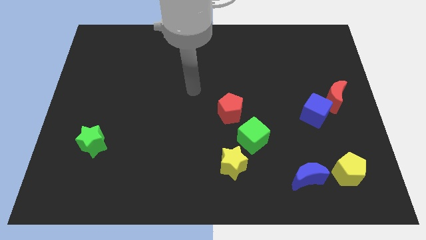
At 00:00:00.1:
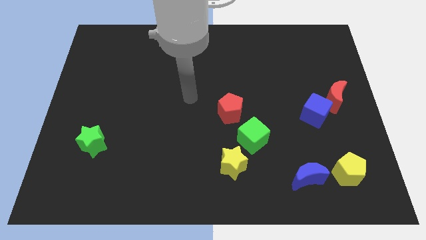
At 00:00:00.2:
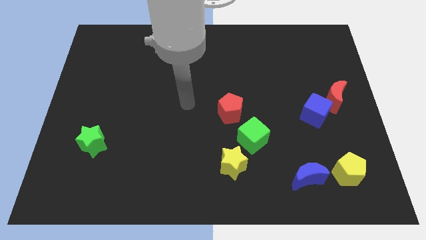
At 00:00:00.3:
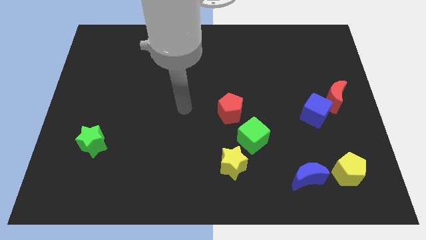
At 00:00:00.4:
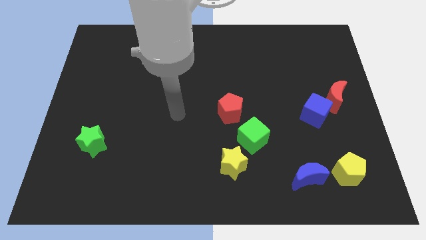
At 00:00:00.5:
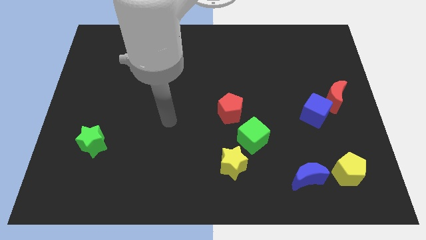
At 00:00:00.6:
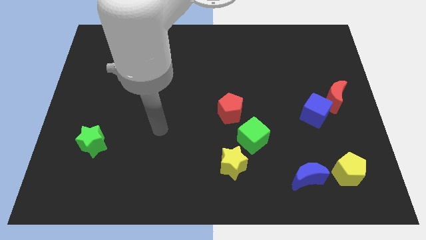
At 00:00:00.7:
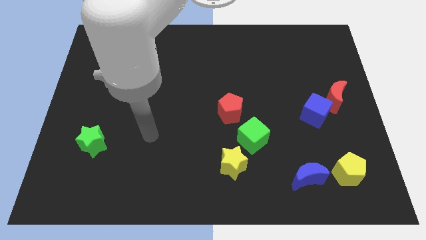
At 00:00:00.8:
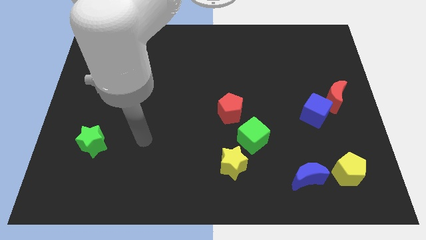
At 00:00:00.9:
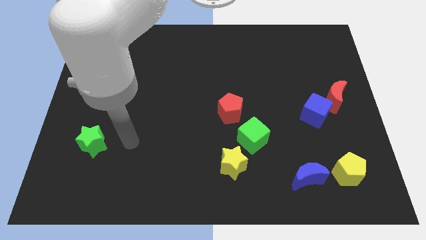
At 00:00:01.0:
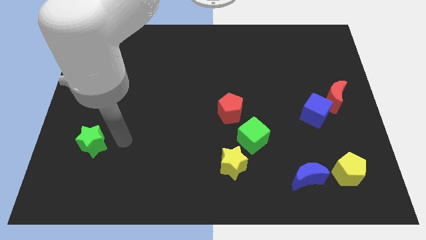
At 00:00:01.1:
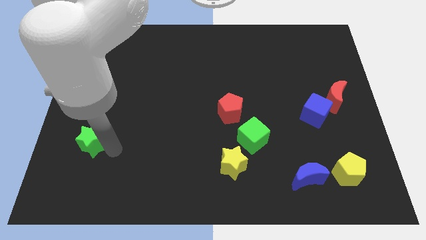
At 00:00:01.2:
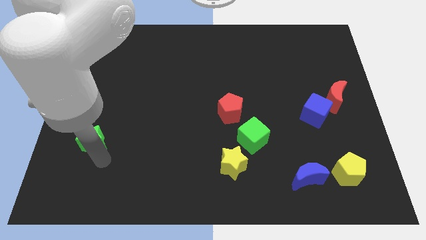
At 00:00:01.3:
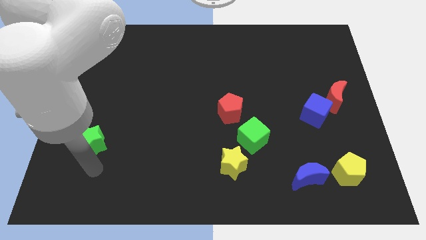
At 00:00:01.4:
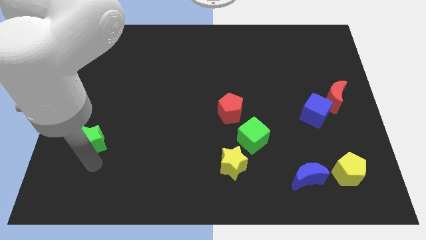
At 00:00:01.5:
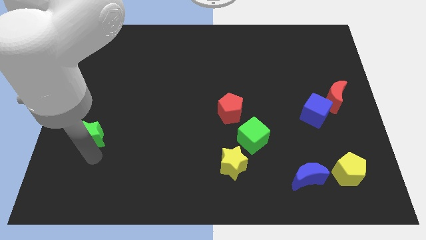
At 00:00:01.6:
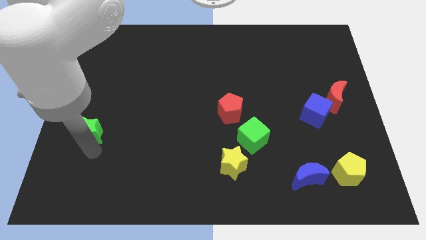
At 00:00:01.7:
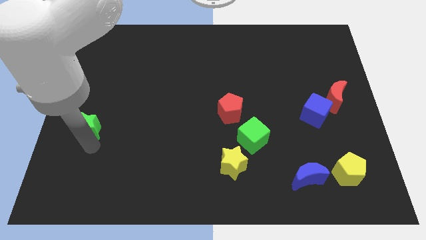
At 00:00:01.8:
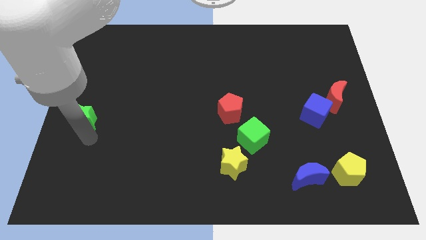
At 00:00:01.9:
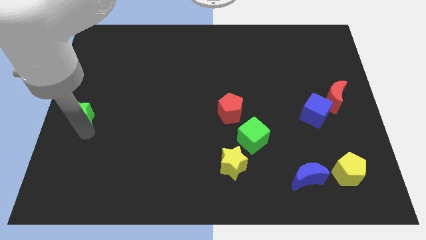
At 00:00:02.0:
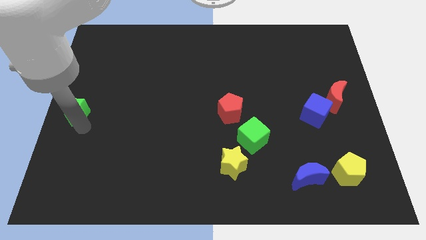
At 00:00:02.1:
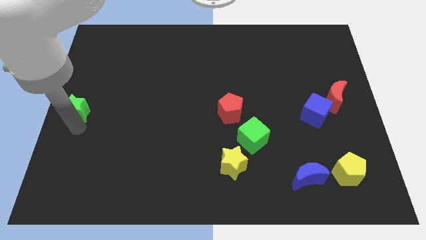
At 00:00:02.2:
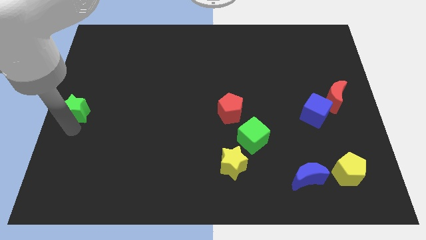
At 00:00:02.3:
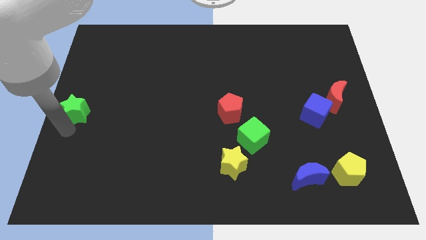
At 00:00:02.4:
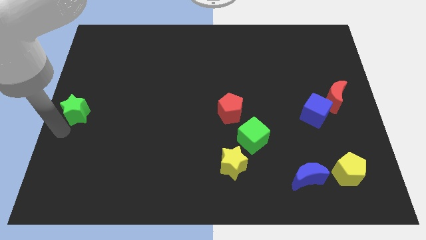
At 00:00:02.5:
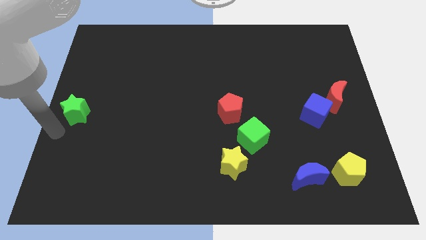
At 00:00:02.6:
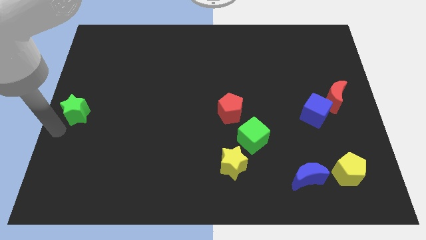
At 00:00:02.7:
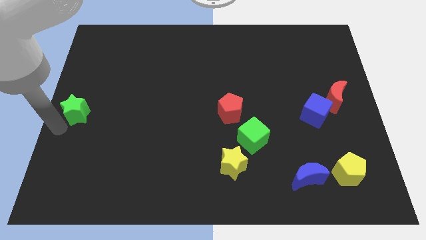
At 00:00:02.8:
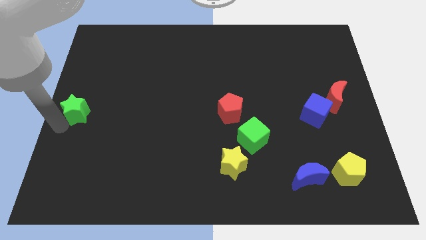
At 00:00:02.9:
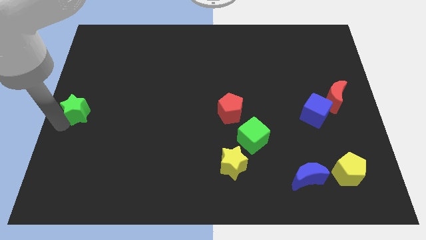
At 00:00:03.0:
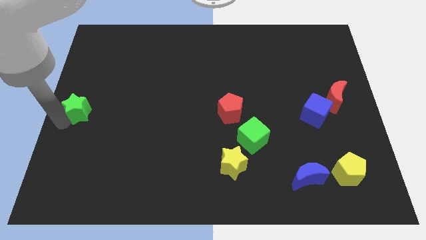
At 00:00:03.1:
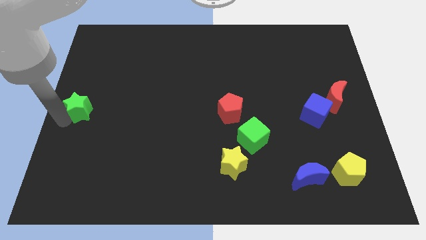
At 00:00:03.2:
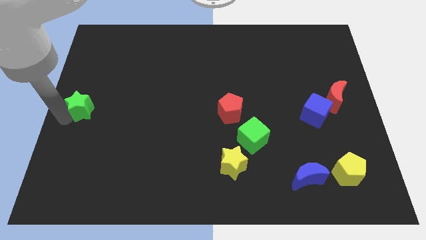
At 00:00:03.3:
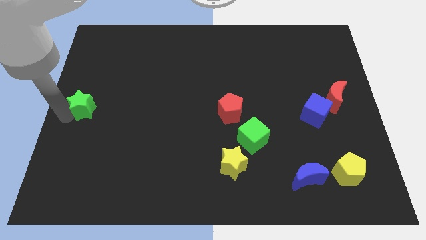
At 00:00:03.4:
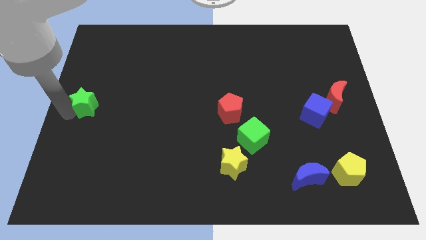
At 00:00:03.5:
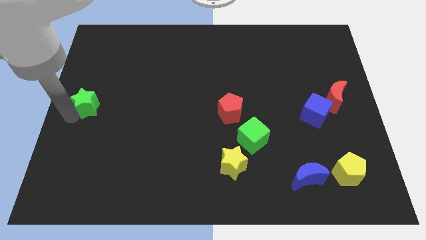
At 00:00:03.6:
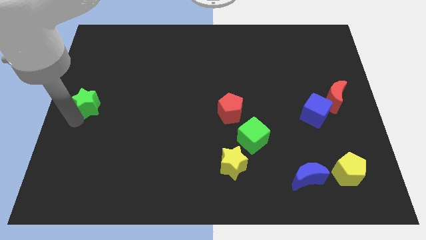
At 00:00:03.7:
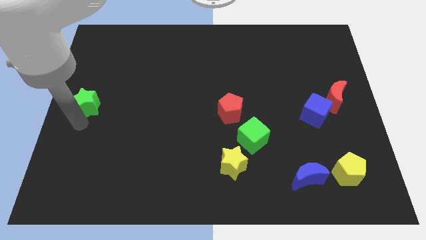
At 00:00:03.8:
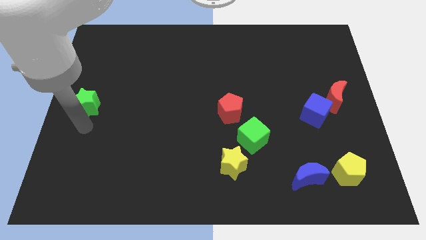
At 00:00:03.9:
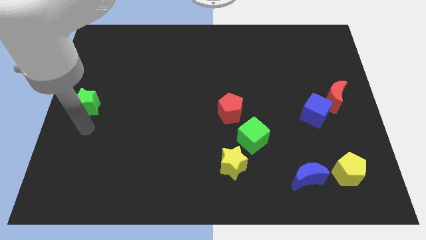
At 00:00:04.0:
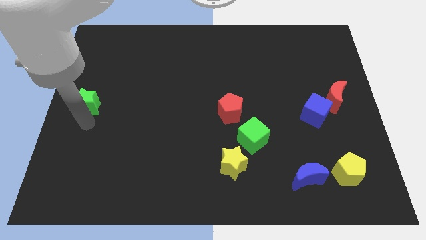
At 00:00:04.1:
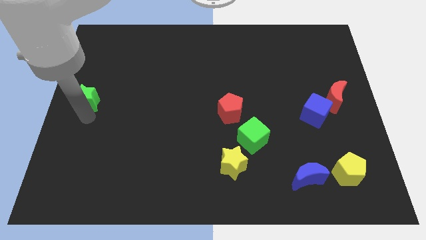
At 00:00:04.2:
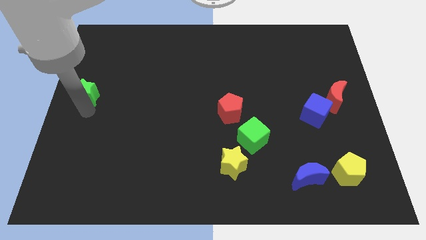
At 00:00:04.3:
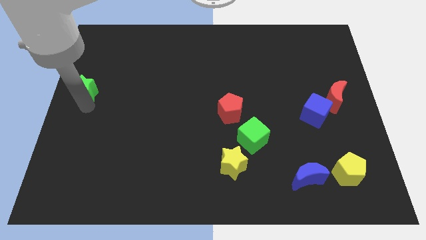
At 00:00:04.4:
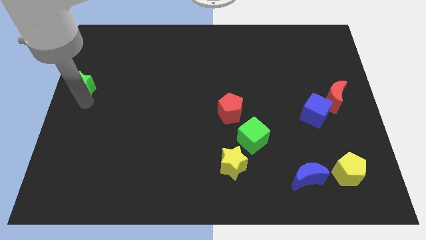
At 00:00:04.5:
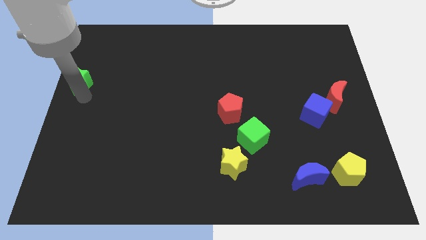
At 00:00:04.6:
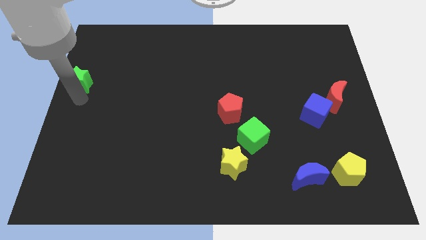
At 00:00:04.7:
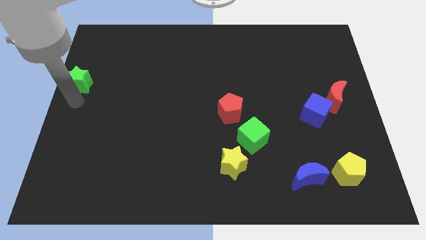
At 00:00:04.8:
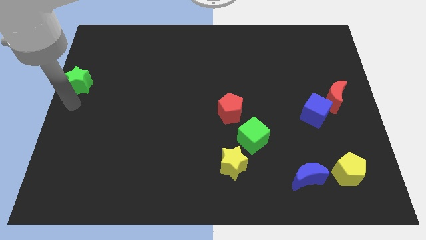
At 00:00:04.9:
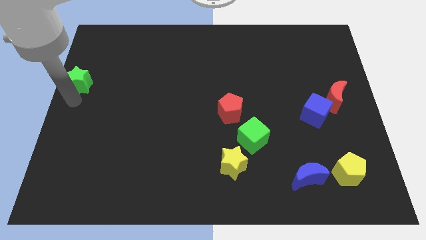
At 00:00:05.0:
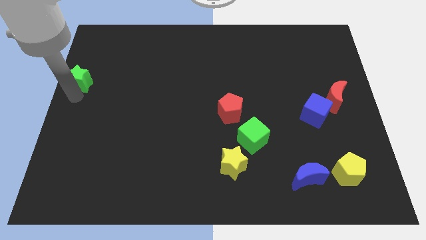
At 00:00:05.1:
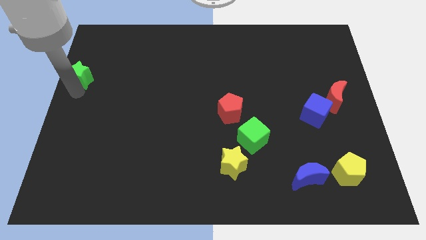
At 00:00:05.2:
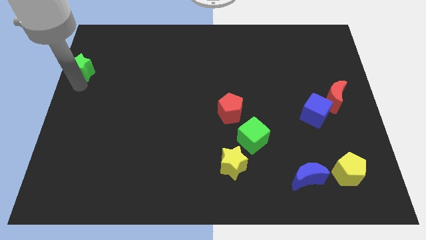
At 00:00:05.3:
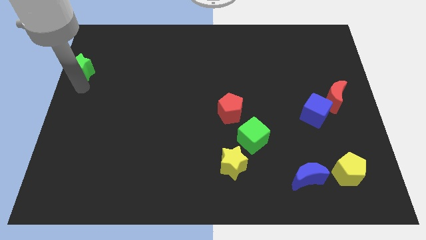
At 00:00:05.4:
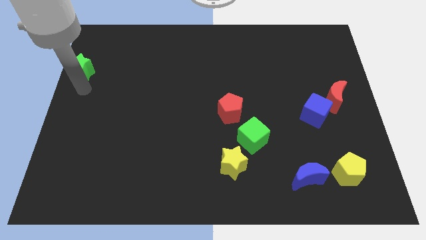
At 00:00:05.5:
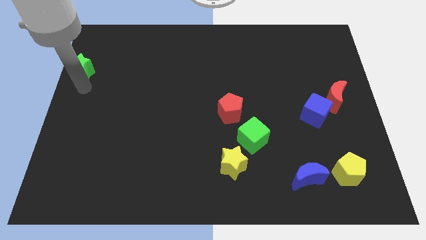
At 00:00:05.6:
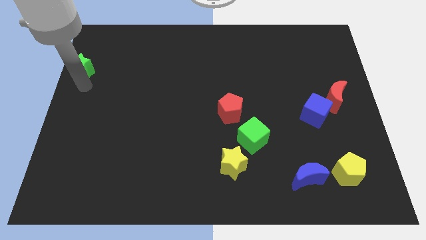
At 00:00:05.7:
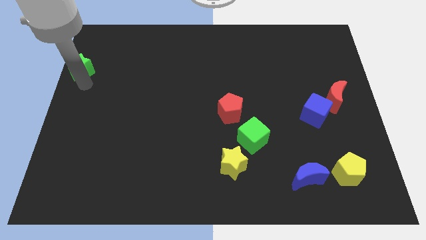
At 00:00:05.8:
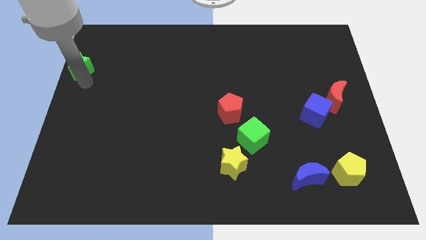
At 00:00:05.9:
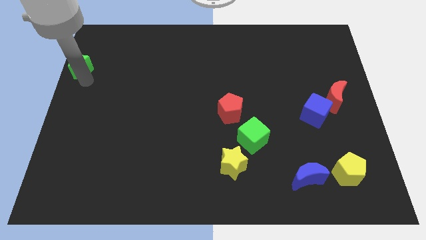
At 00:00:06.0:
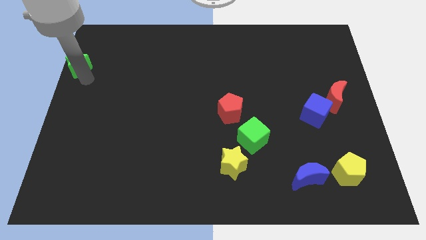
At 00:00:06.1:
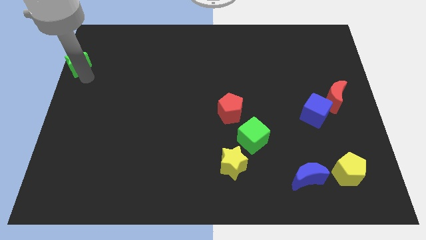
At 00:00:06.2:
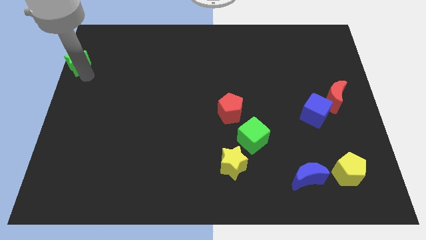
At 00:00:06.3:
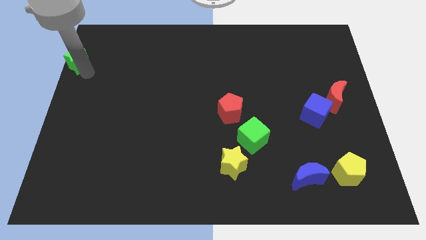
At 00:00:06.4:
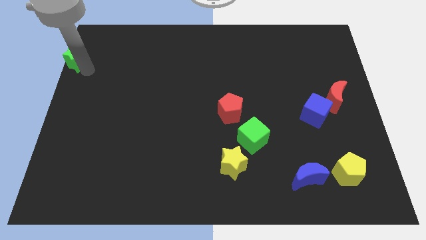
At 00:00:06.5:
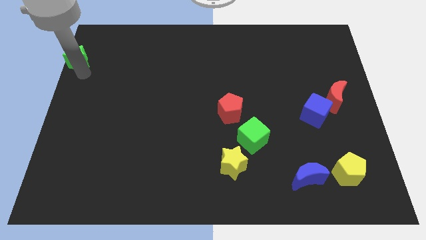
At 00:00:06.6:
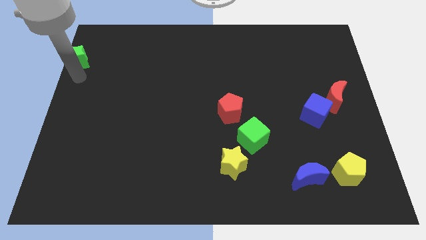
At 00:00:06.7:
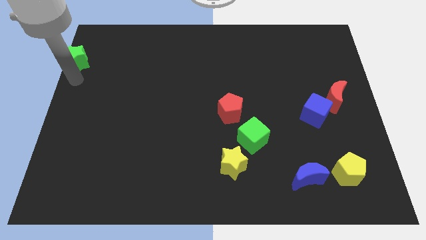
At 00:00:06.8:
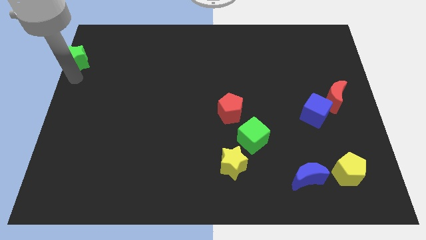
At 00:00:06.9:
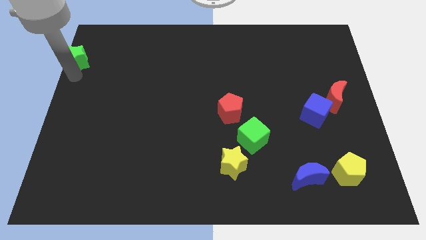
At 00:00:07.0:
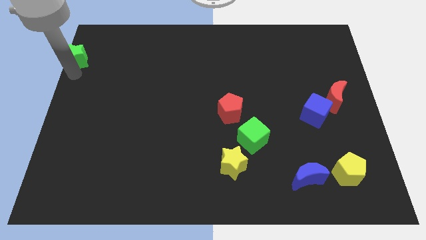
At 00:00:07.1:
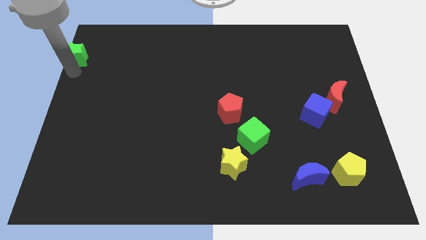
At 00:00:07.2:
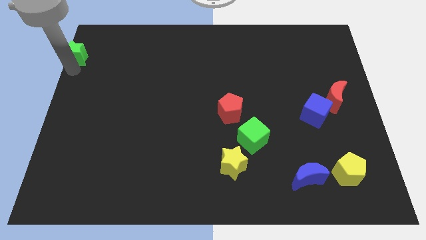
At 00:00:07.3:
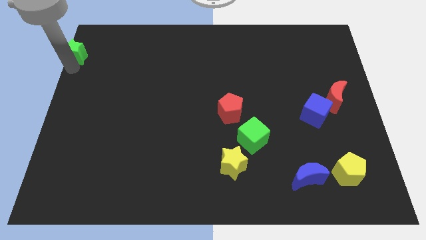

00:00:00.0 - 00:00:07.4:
slide the green star to the top left corner
